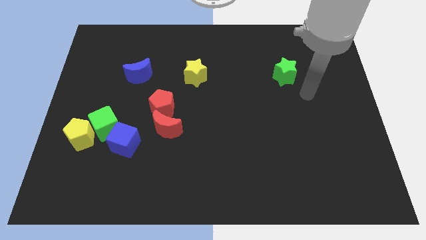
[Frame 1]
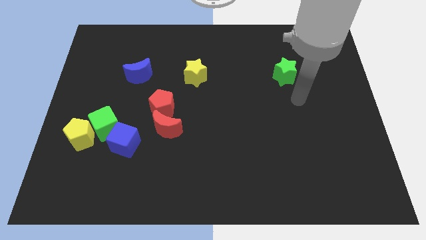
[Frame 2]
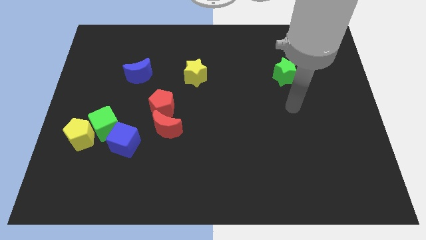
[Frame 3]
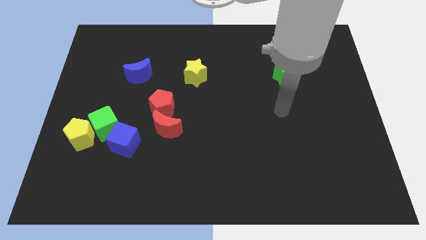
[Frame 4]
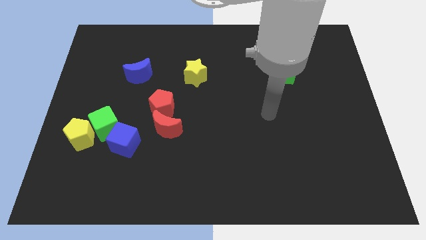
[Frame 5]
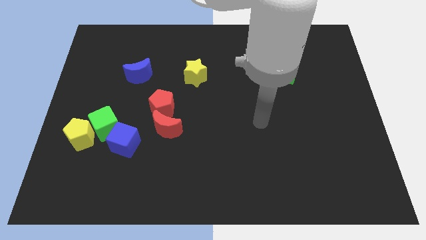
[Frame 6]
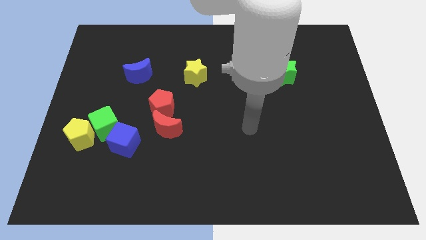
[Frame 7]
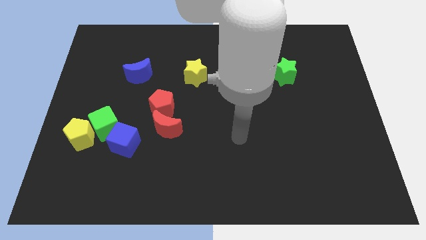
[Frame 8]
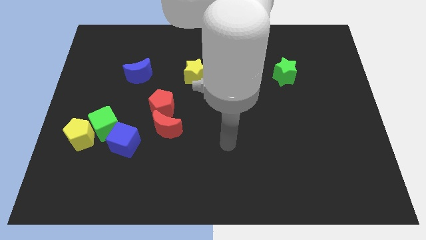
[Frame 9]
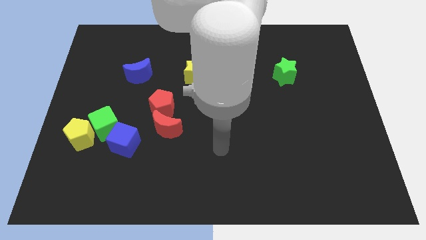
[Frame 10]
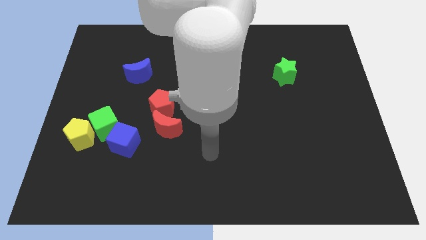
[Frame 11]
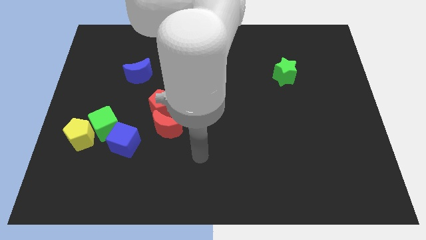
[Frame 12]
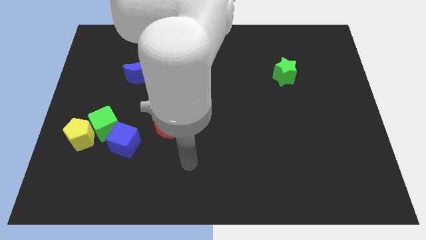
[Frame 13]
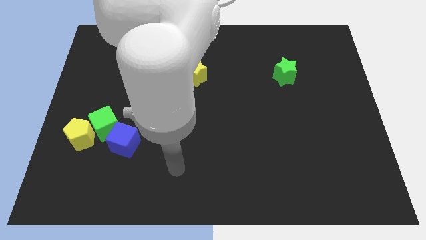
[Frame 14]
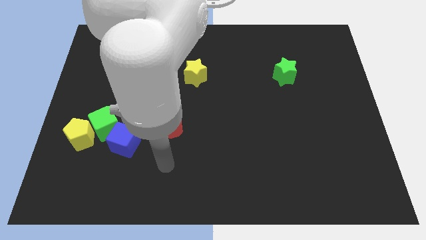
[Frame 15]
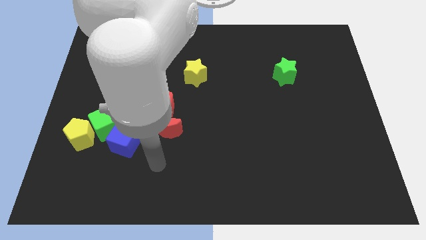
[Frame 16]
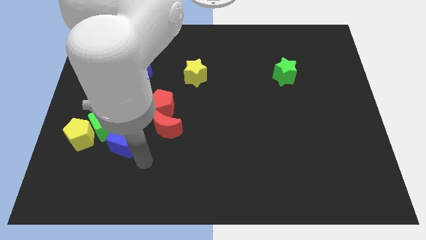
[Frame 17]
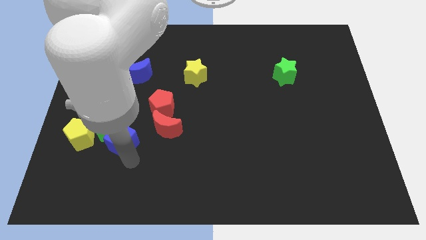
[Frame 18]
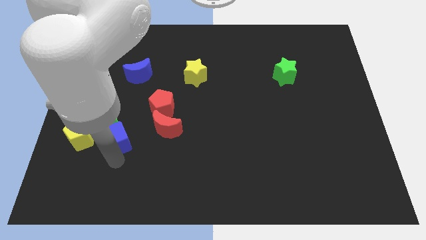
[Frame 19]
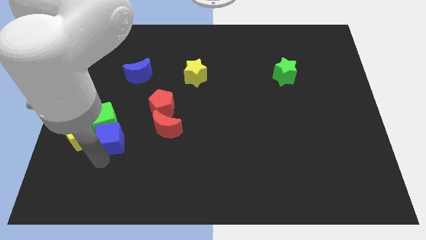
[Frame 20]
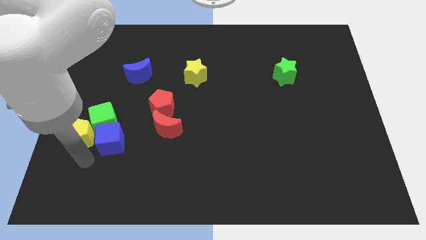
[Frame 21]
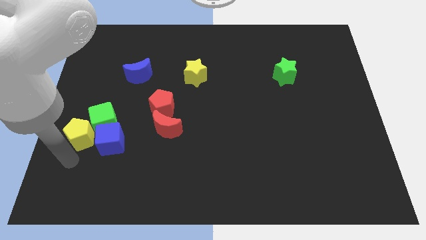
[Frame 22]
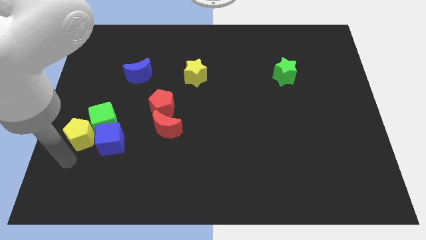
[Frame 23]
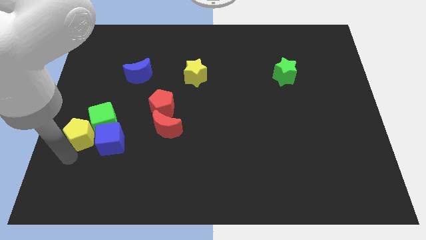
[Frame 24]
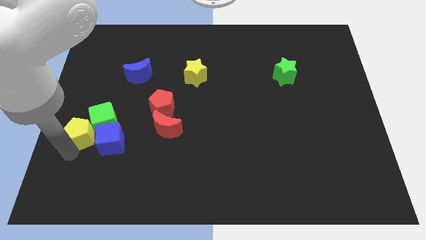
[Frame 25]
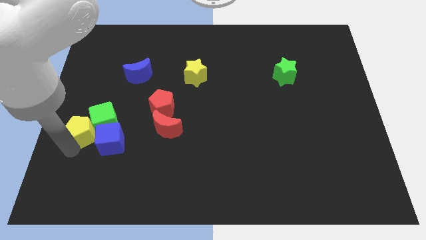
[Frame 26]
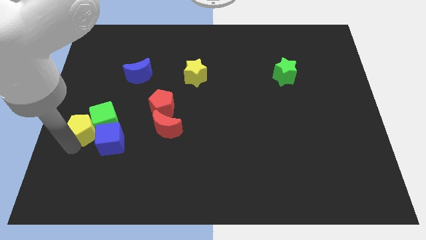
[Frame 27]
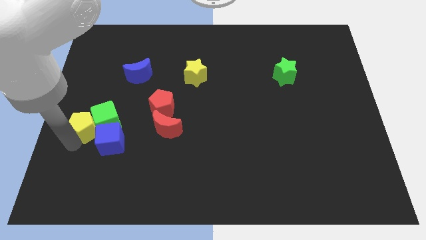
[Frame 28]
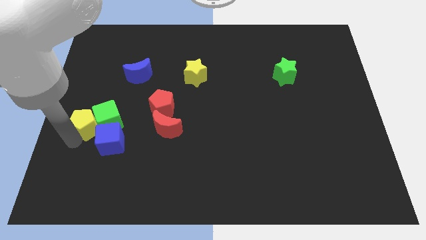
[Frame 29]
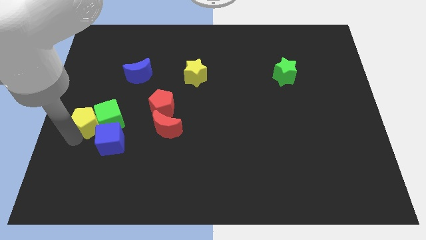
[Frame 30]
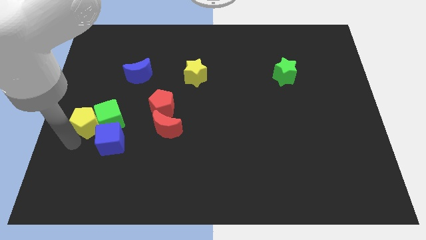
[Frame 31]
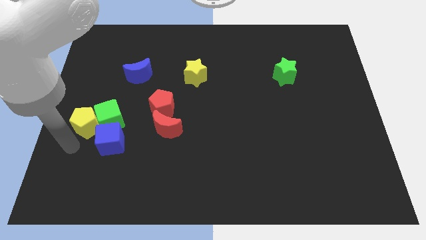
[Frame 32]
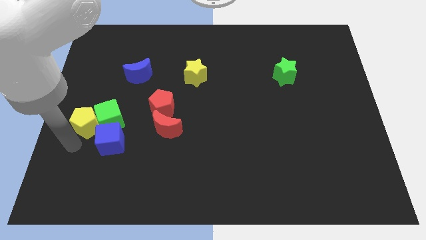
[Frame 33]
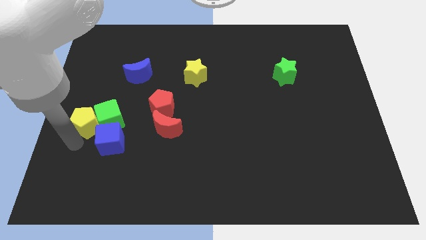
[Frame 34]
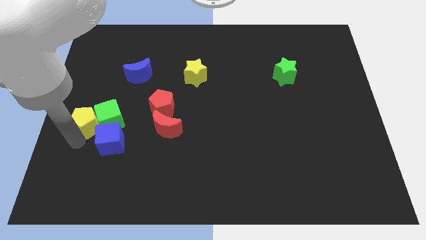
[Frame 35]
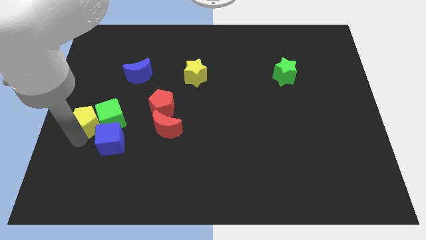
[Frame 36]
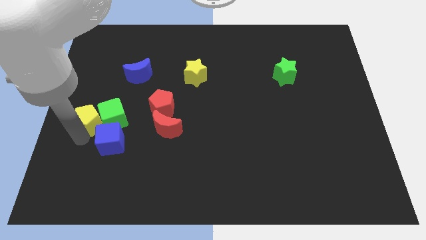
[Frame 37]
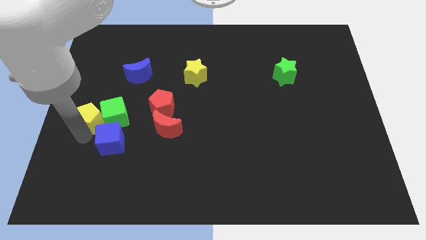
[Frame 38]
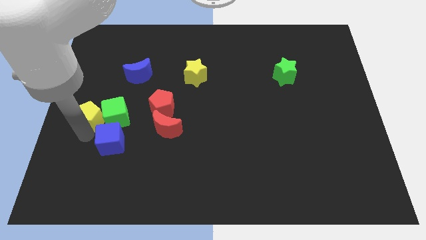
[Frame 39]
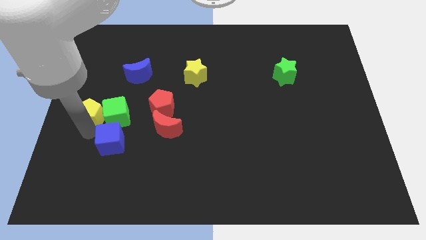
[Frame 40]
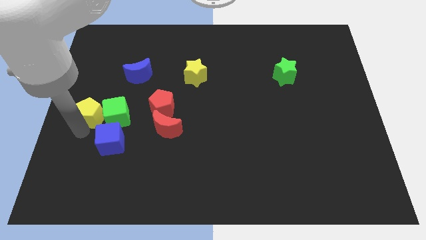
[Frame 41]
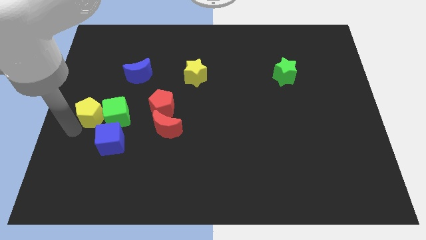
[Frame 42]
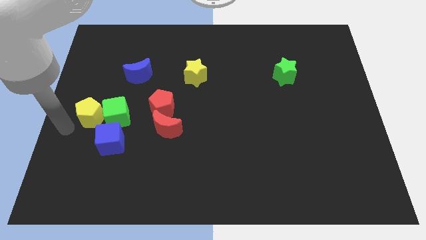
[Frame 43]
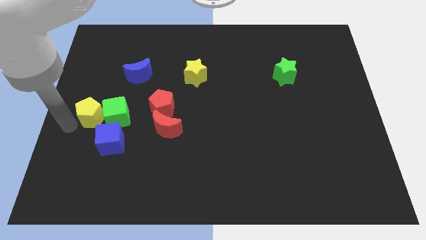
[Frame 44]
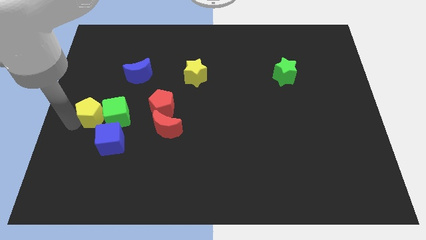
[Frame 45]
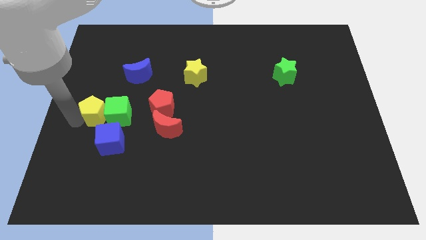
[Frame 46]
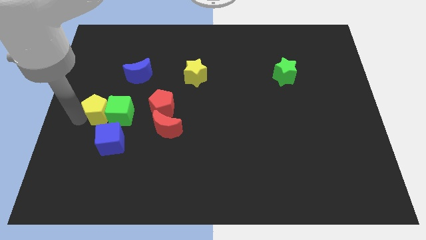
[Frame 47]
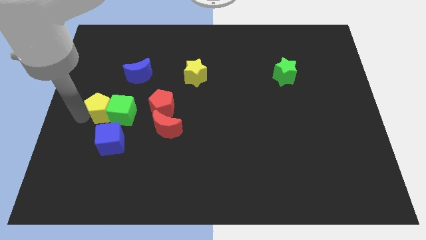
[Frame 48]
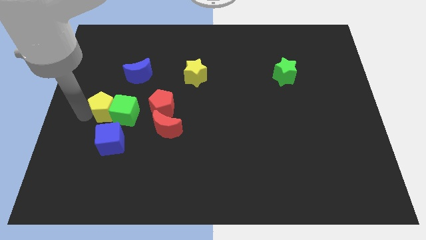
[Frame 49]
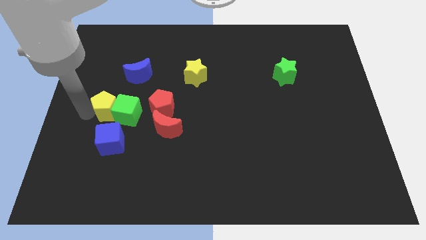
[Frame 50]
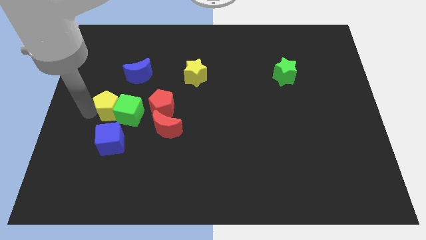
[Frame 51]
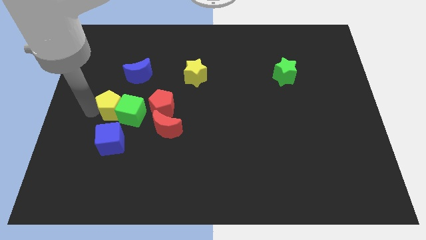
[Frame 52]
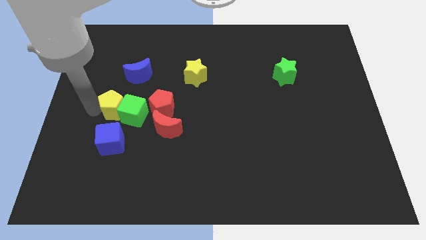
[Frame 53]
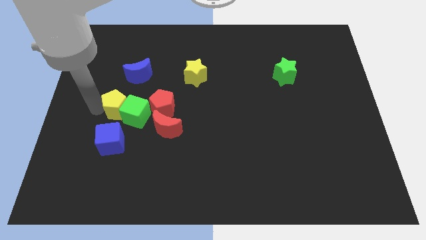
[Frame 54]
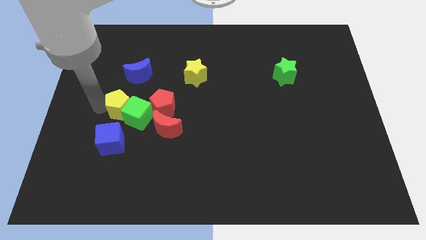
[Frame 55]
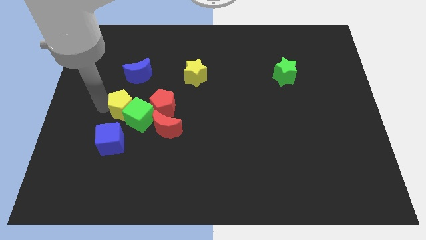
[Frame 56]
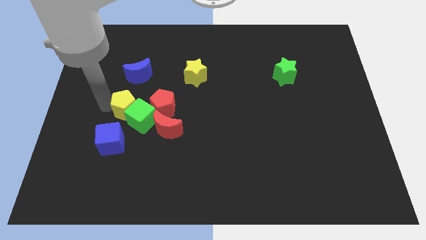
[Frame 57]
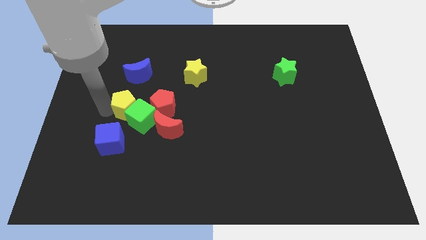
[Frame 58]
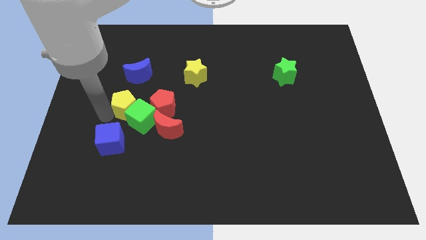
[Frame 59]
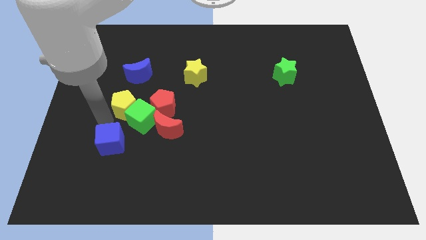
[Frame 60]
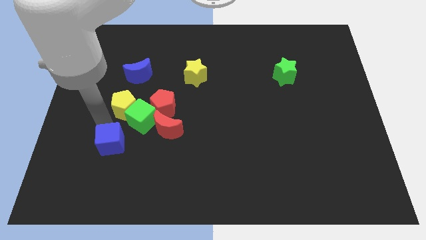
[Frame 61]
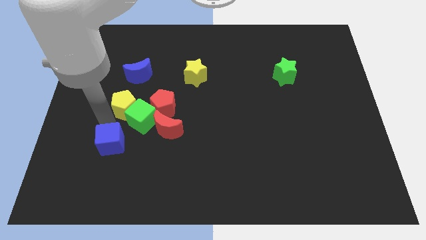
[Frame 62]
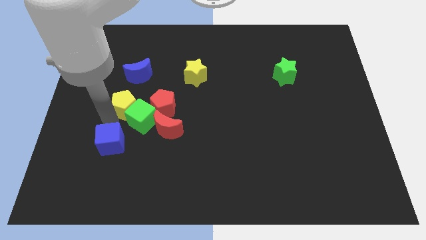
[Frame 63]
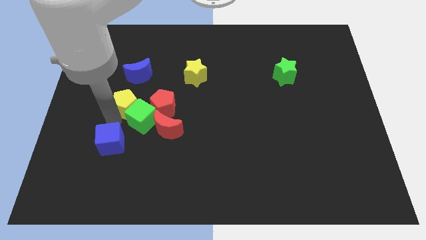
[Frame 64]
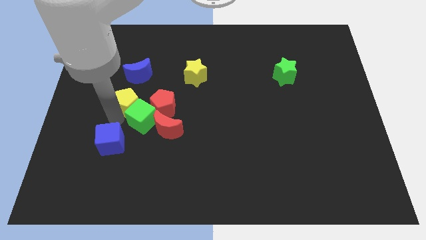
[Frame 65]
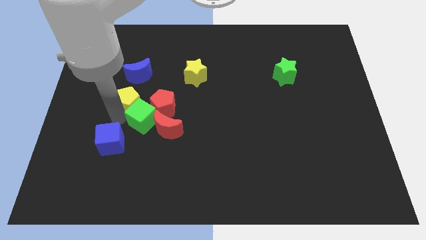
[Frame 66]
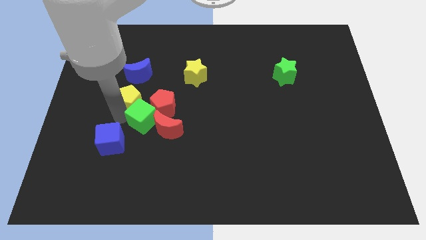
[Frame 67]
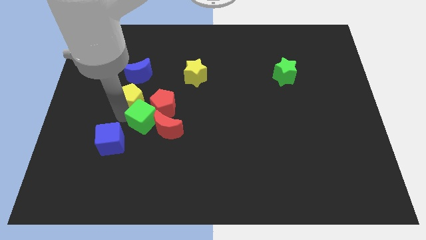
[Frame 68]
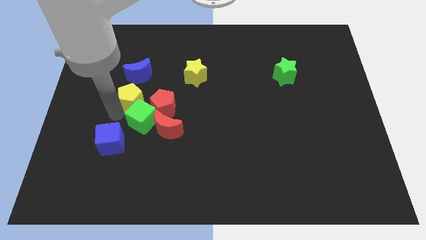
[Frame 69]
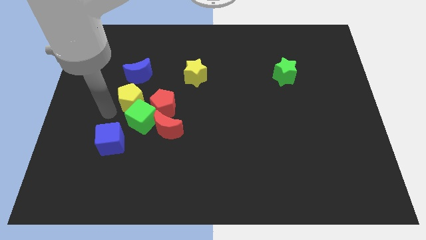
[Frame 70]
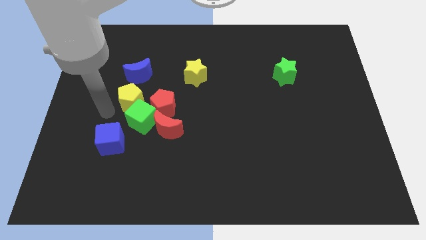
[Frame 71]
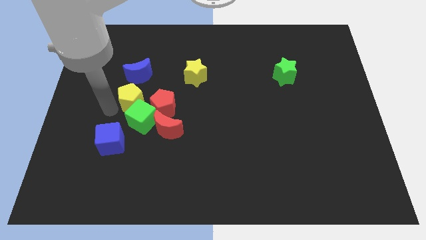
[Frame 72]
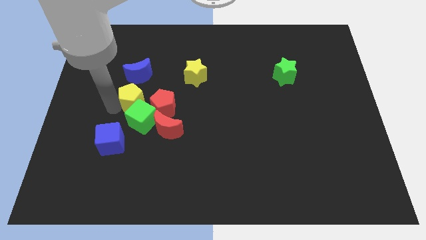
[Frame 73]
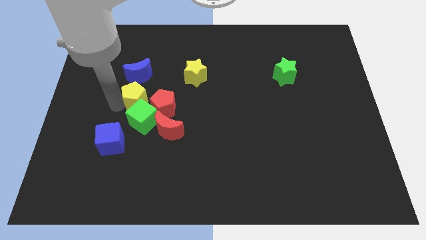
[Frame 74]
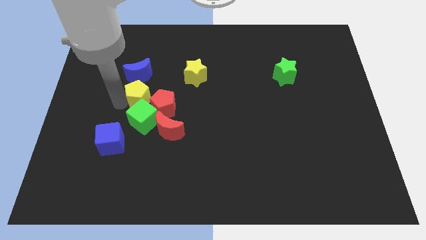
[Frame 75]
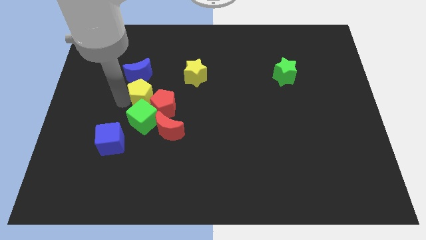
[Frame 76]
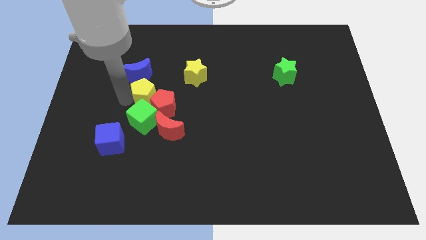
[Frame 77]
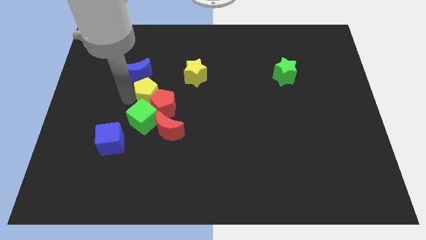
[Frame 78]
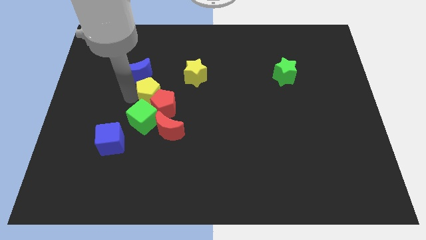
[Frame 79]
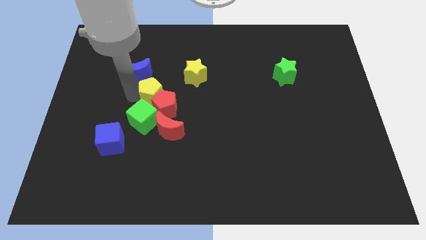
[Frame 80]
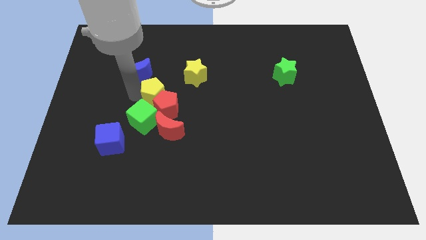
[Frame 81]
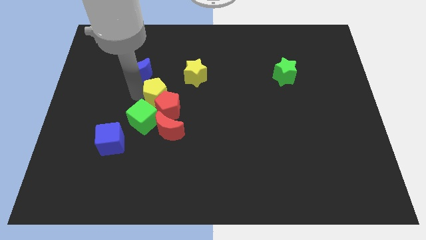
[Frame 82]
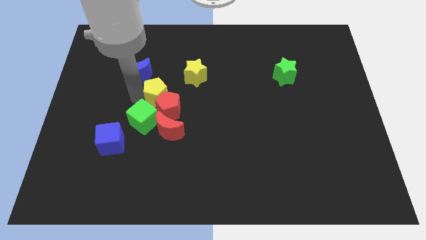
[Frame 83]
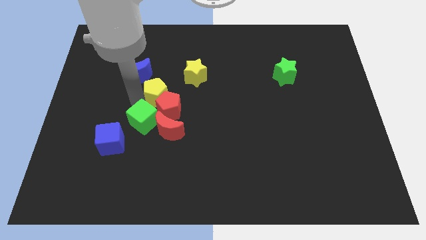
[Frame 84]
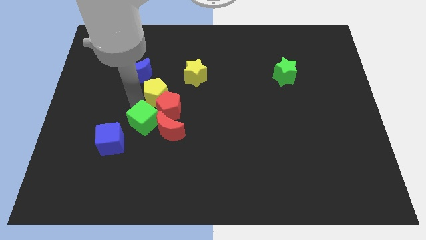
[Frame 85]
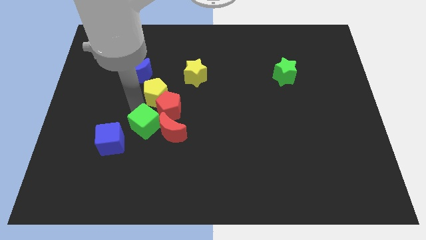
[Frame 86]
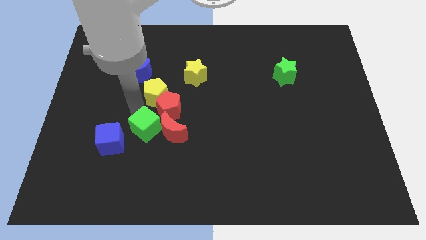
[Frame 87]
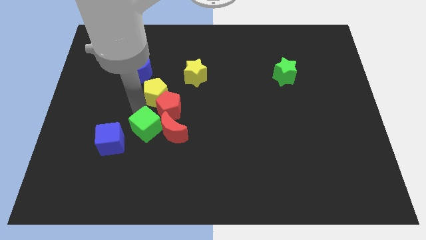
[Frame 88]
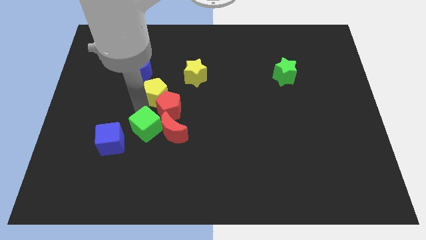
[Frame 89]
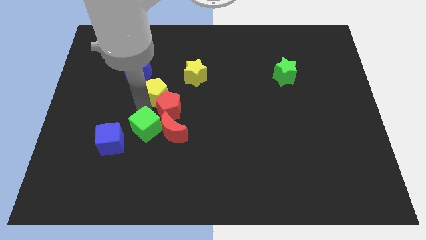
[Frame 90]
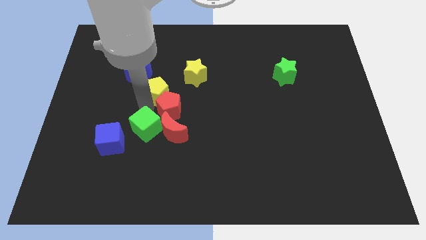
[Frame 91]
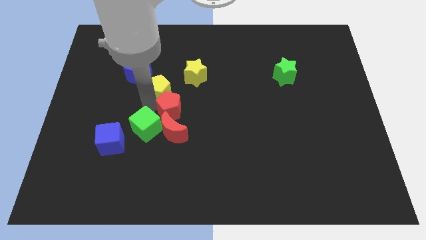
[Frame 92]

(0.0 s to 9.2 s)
move the yellow pentagon upwards and to the right diagonally
